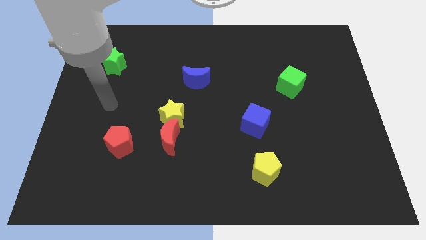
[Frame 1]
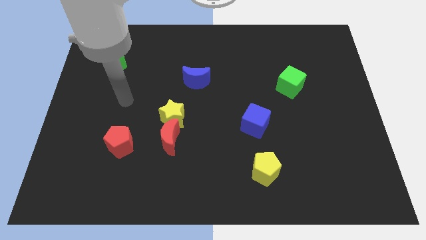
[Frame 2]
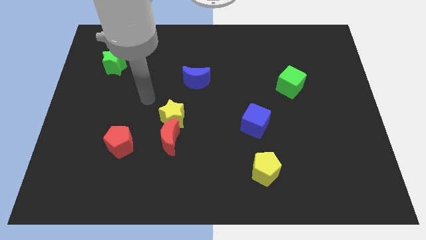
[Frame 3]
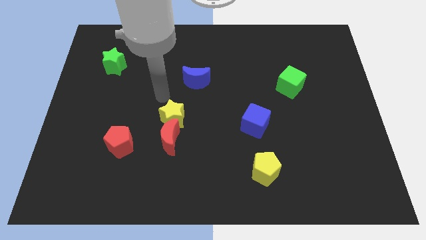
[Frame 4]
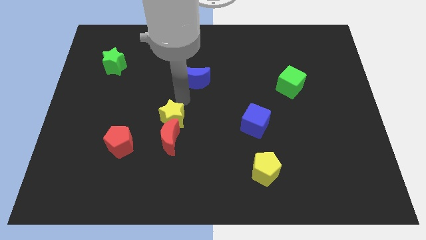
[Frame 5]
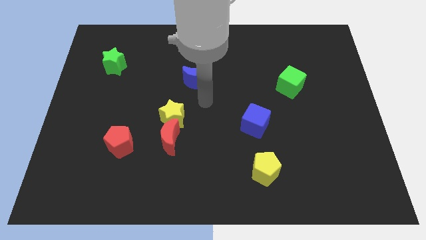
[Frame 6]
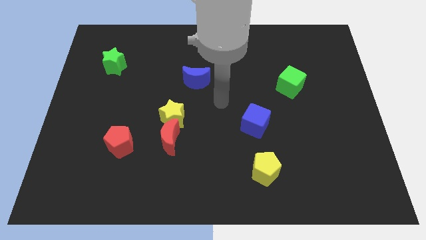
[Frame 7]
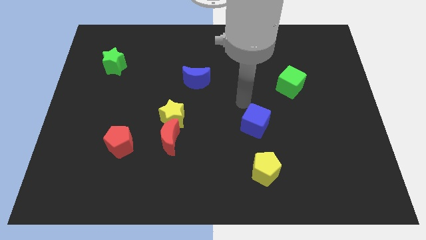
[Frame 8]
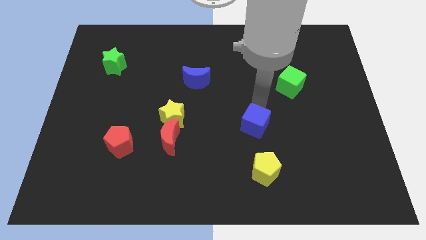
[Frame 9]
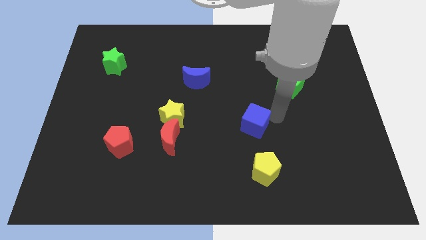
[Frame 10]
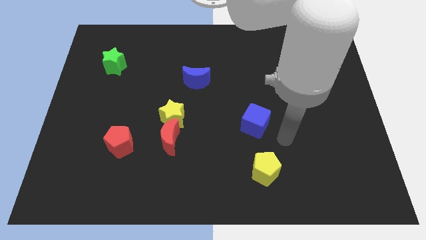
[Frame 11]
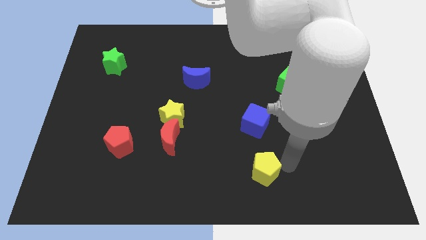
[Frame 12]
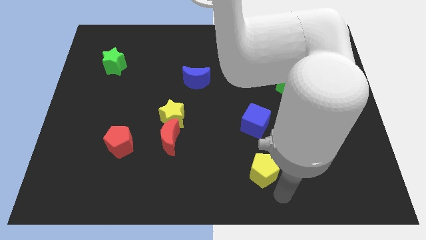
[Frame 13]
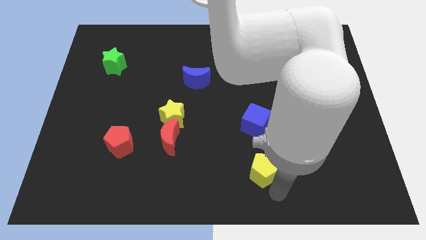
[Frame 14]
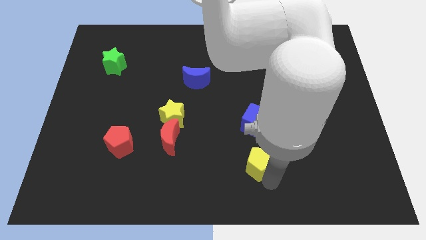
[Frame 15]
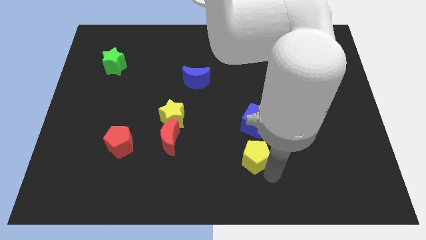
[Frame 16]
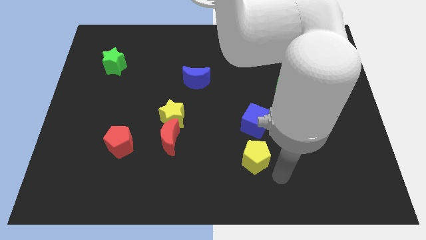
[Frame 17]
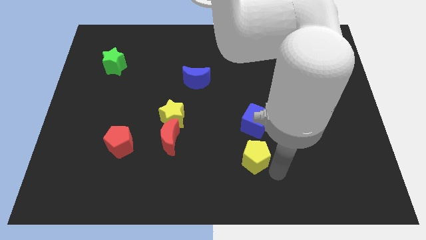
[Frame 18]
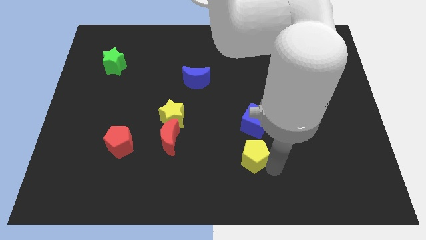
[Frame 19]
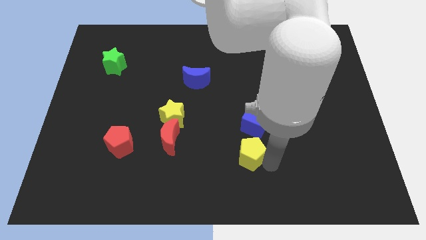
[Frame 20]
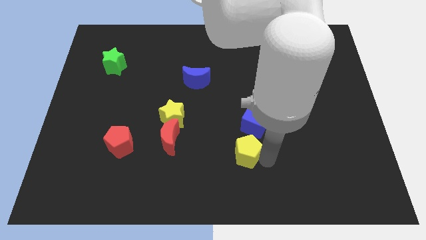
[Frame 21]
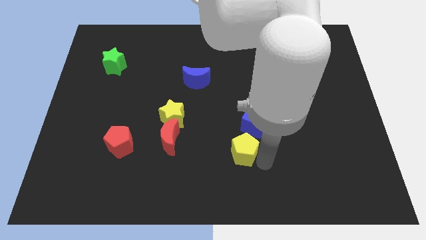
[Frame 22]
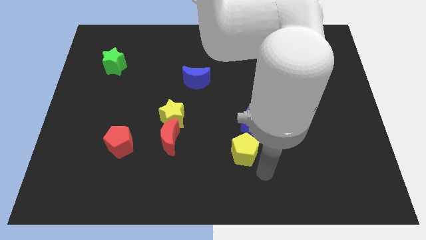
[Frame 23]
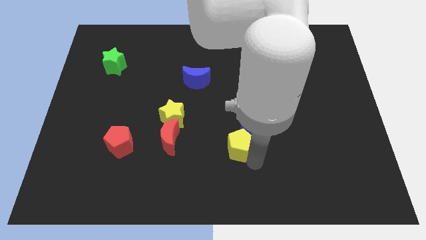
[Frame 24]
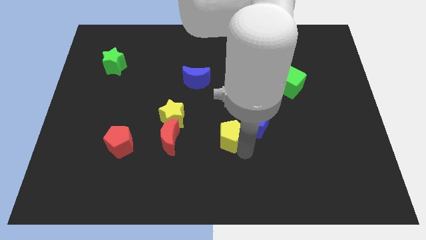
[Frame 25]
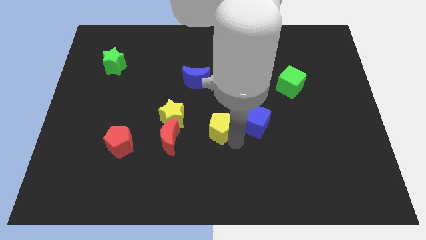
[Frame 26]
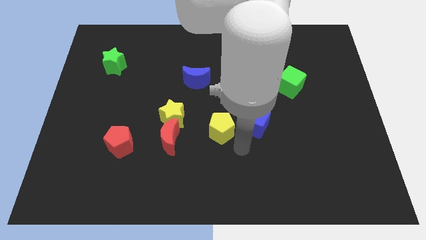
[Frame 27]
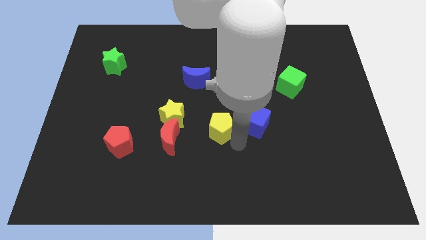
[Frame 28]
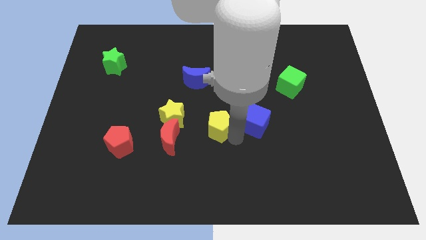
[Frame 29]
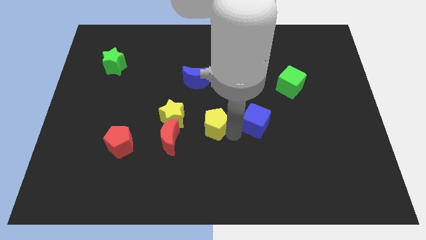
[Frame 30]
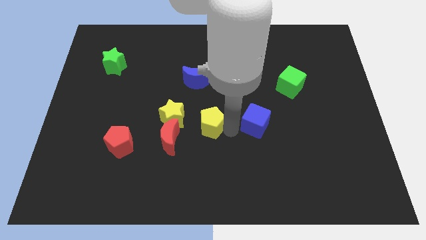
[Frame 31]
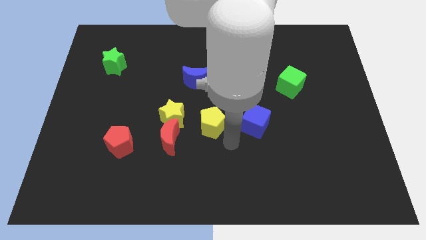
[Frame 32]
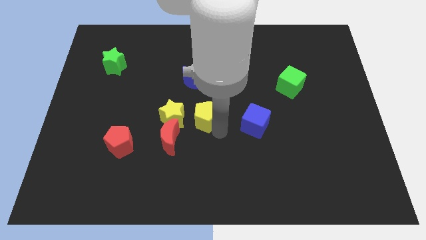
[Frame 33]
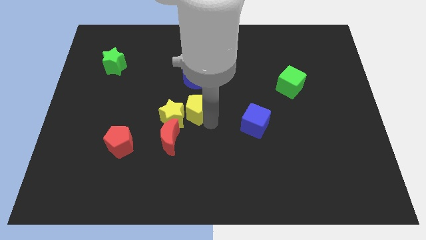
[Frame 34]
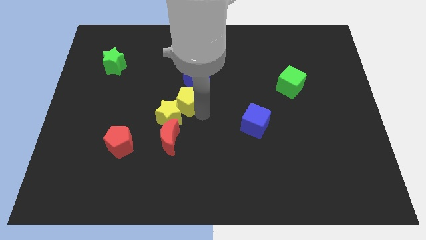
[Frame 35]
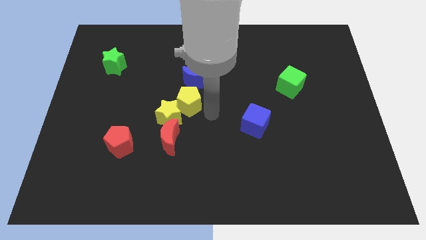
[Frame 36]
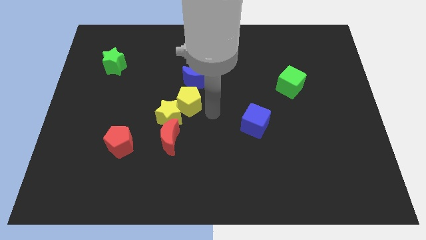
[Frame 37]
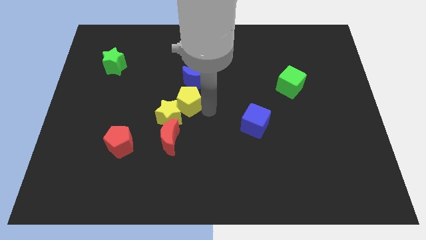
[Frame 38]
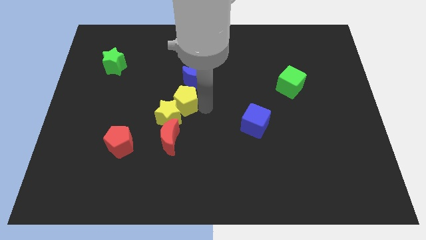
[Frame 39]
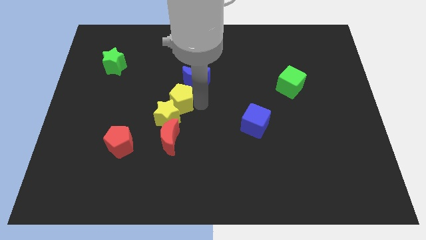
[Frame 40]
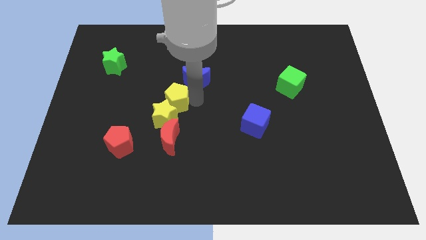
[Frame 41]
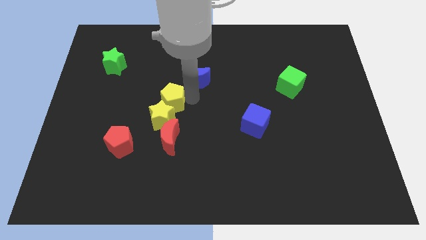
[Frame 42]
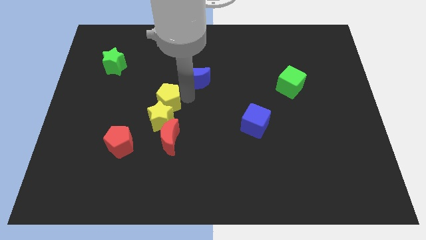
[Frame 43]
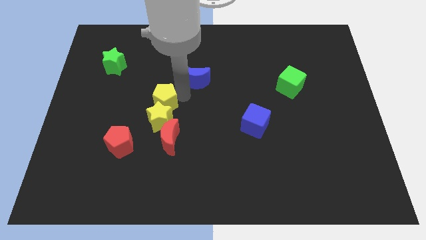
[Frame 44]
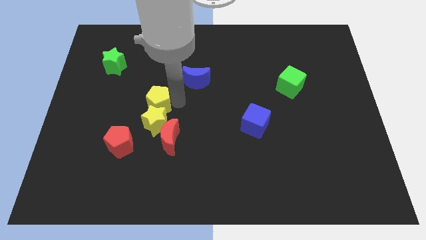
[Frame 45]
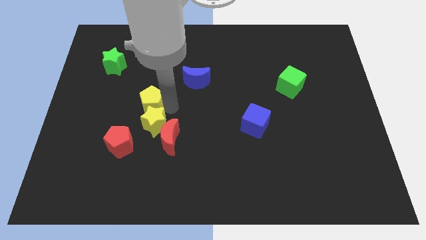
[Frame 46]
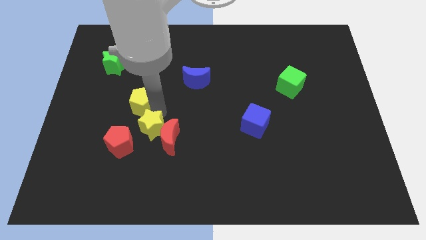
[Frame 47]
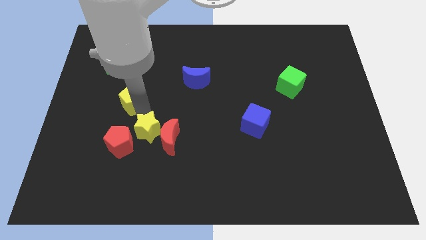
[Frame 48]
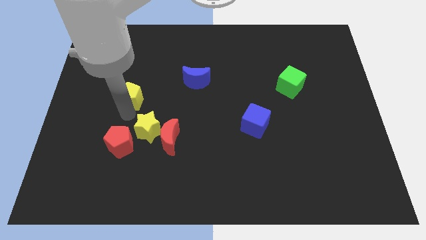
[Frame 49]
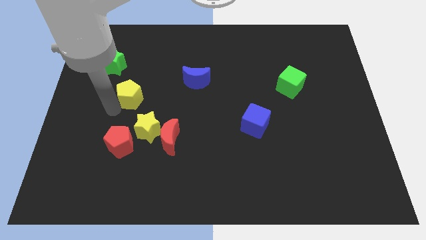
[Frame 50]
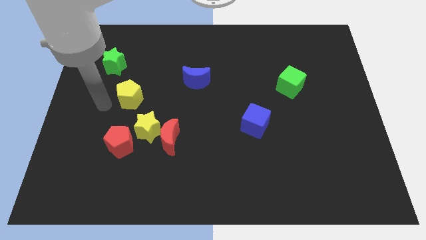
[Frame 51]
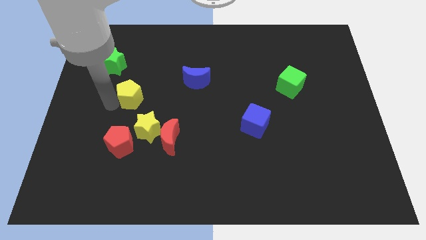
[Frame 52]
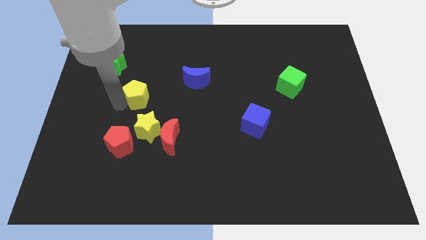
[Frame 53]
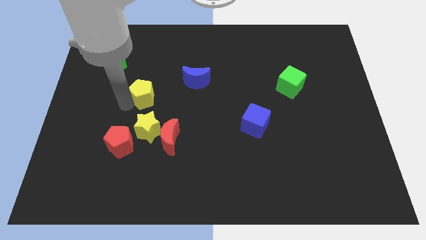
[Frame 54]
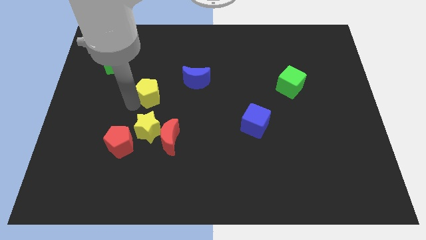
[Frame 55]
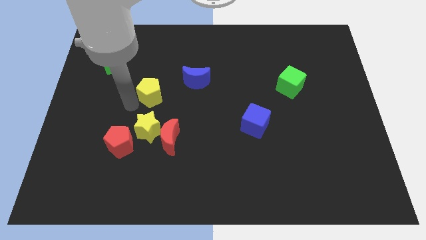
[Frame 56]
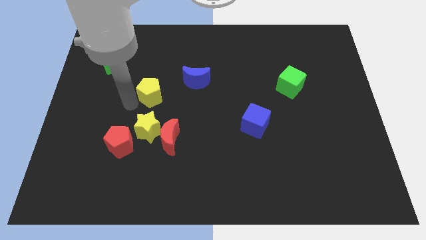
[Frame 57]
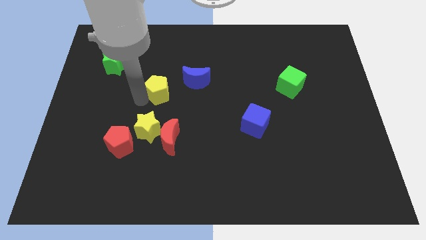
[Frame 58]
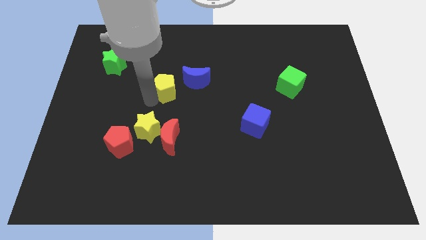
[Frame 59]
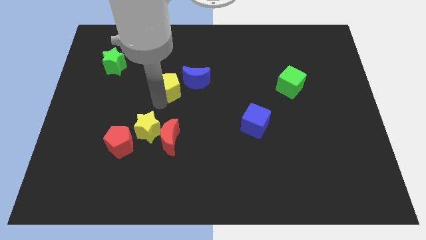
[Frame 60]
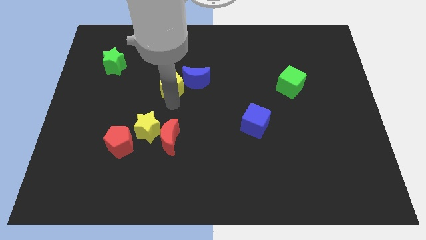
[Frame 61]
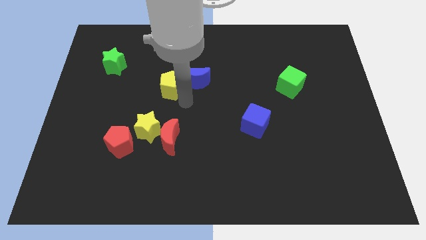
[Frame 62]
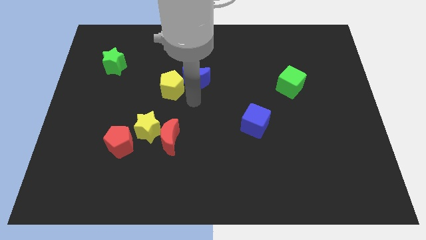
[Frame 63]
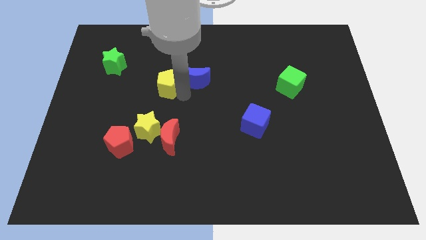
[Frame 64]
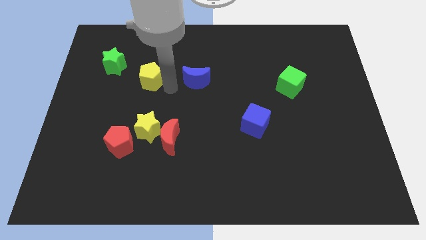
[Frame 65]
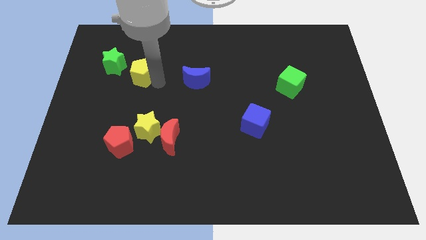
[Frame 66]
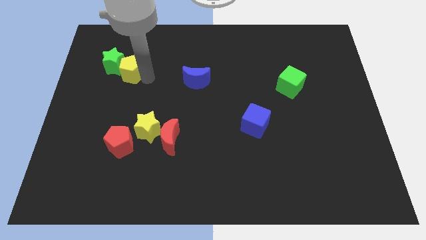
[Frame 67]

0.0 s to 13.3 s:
push the yellow pentagon close to the green star
